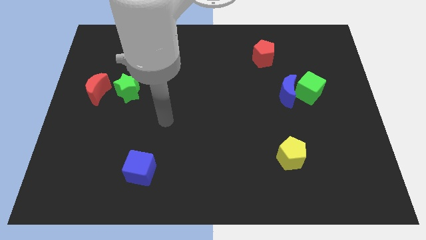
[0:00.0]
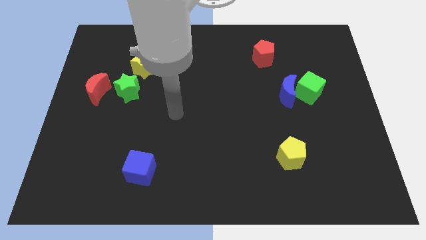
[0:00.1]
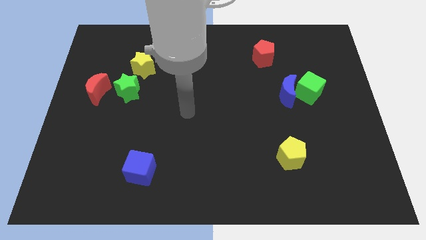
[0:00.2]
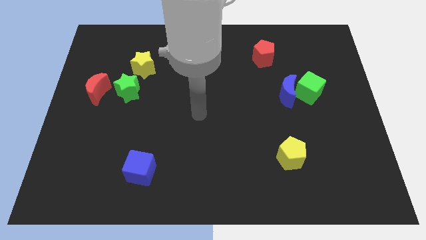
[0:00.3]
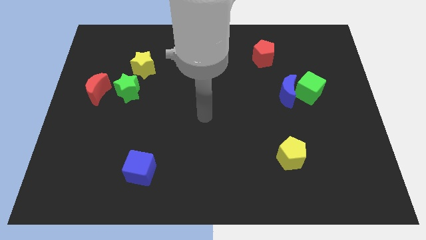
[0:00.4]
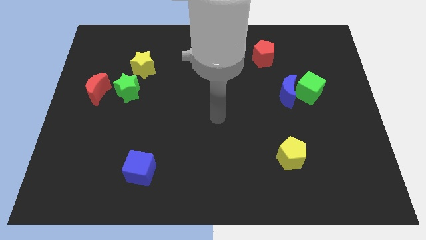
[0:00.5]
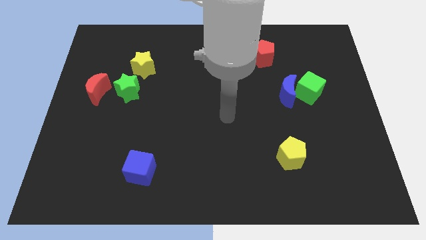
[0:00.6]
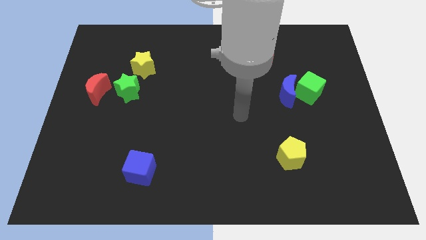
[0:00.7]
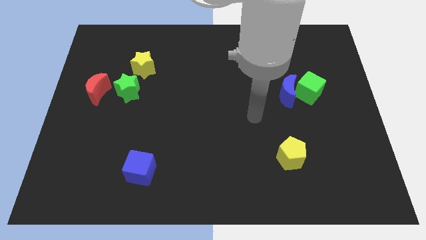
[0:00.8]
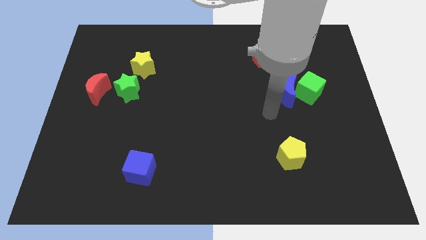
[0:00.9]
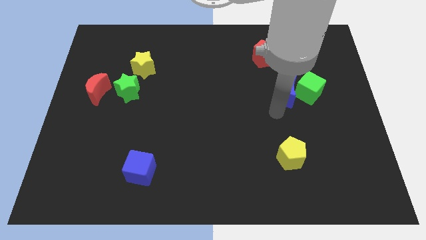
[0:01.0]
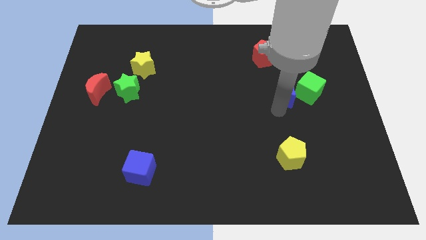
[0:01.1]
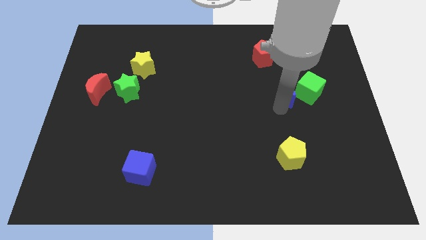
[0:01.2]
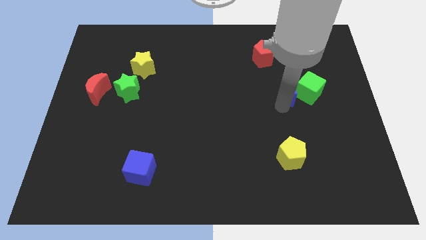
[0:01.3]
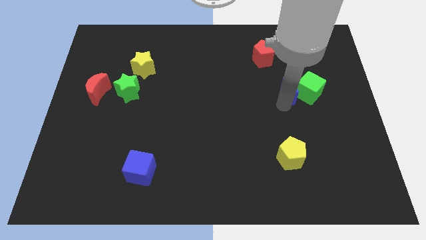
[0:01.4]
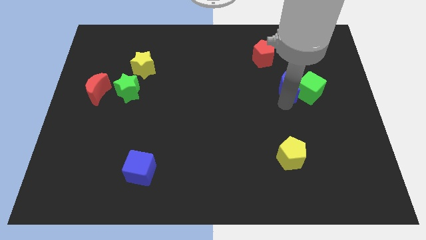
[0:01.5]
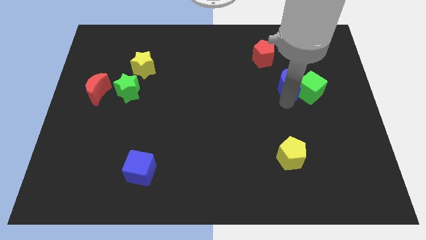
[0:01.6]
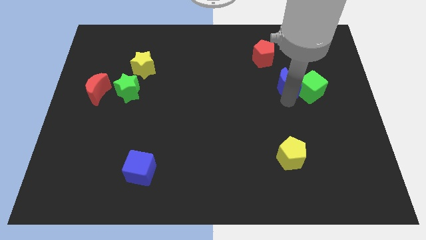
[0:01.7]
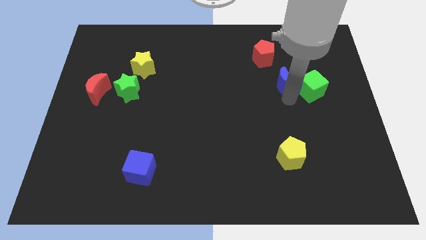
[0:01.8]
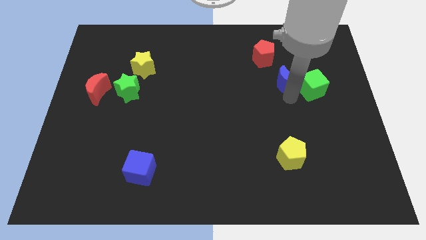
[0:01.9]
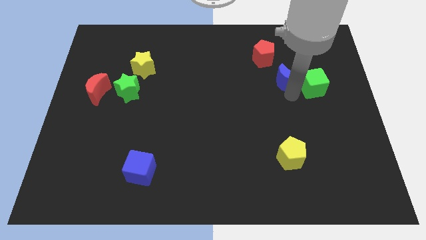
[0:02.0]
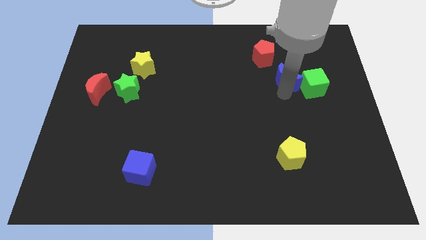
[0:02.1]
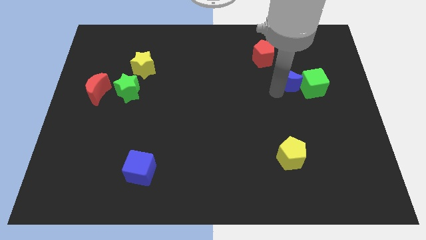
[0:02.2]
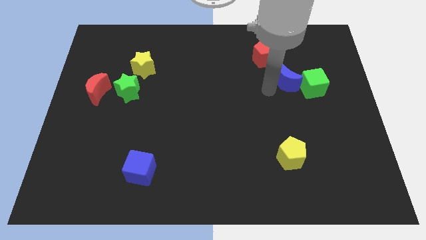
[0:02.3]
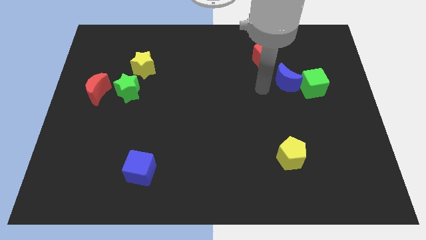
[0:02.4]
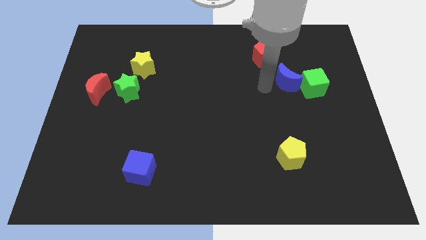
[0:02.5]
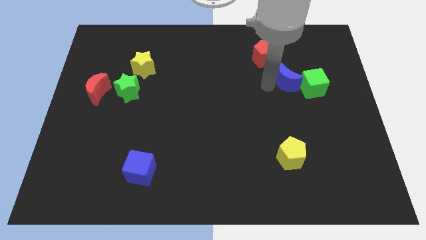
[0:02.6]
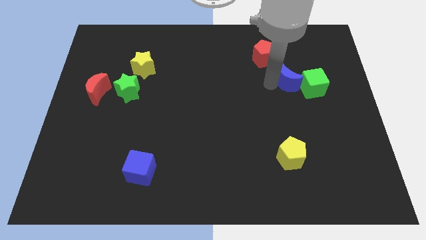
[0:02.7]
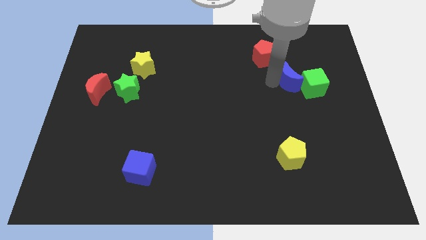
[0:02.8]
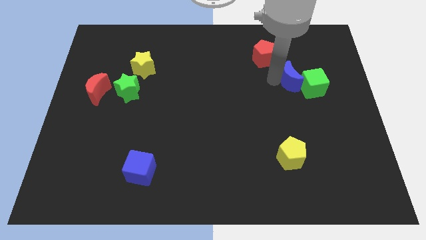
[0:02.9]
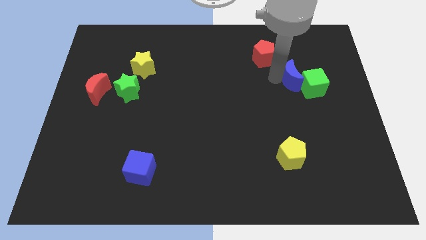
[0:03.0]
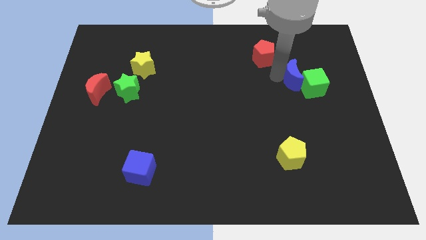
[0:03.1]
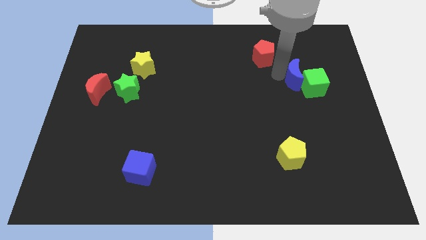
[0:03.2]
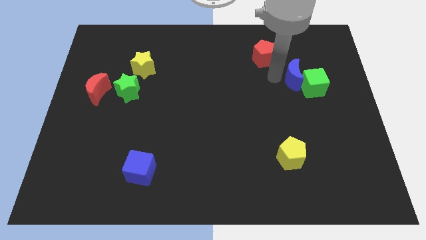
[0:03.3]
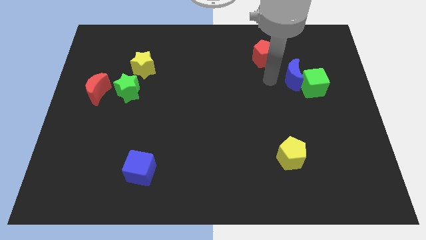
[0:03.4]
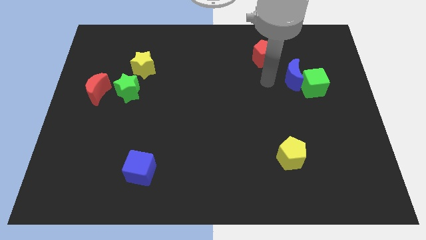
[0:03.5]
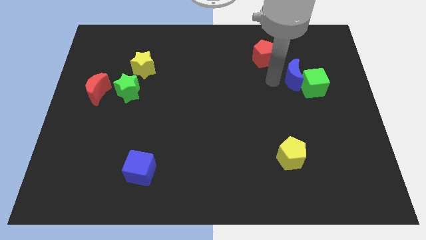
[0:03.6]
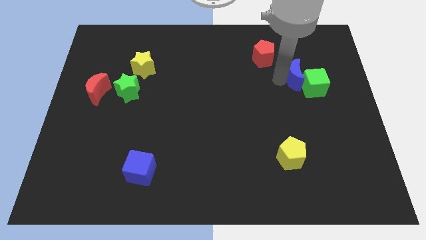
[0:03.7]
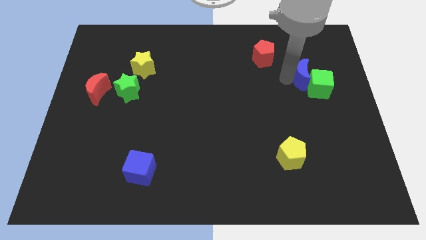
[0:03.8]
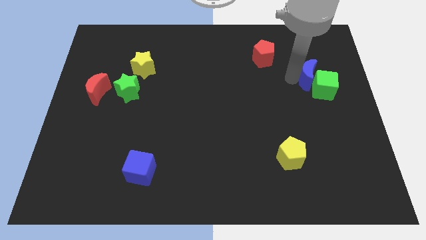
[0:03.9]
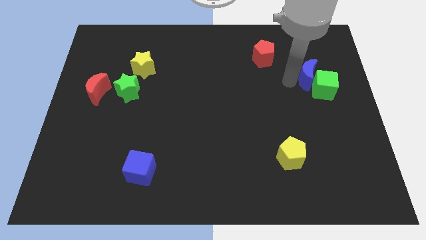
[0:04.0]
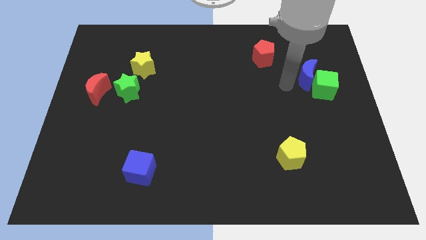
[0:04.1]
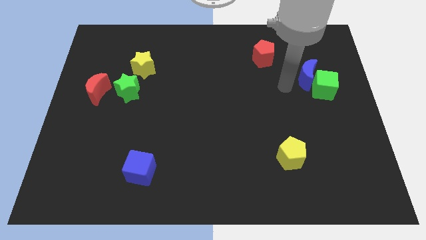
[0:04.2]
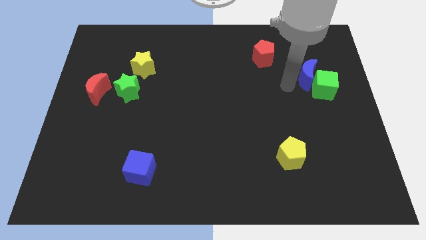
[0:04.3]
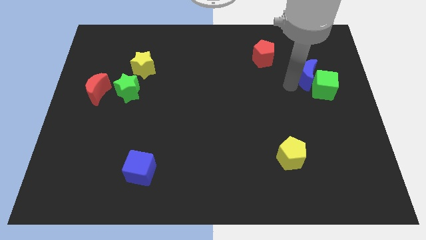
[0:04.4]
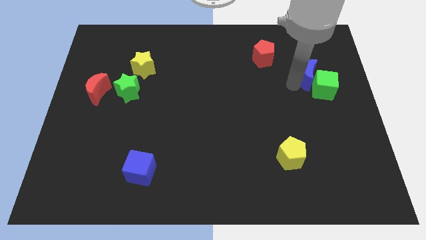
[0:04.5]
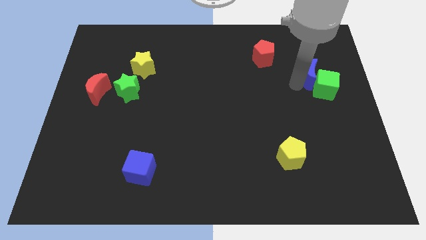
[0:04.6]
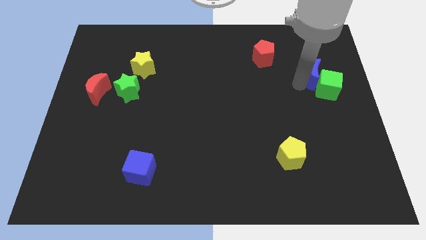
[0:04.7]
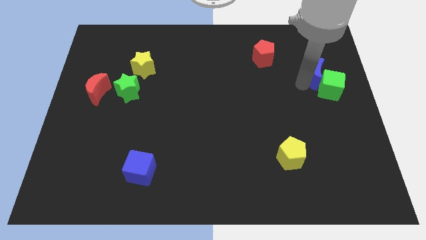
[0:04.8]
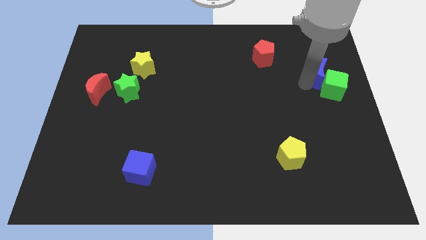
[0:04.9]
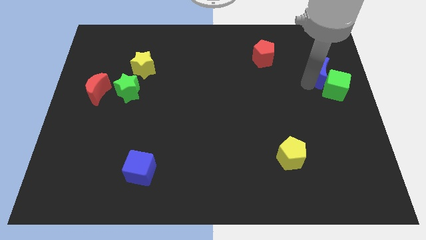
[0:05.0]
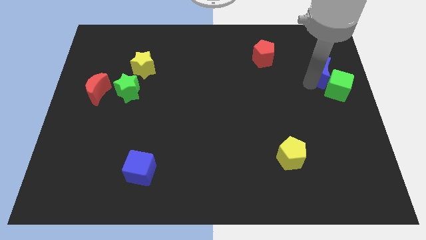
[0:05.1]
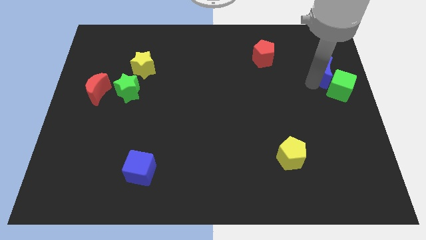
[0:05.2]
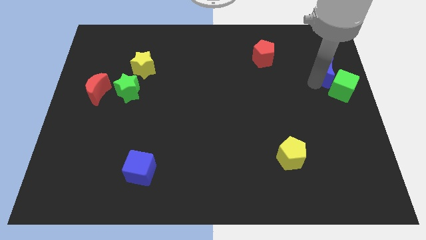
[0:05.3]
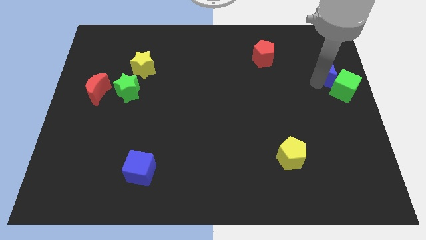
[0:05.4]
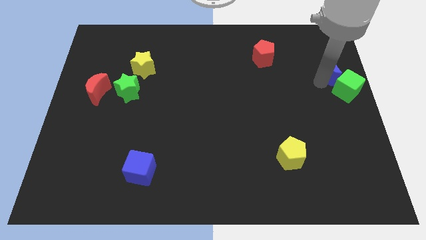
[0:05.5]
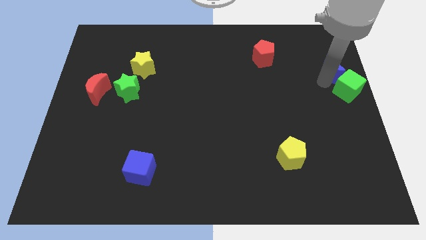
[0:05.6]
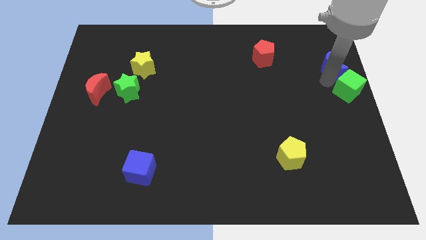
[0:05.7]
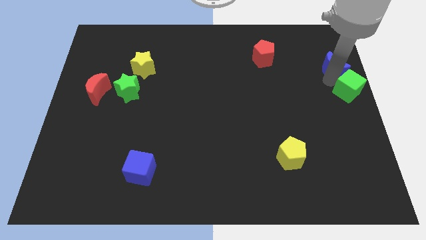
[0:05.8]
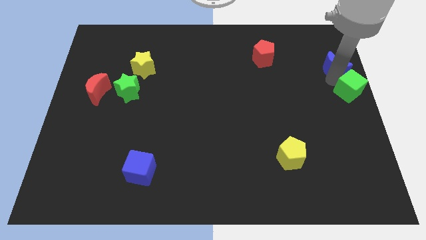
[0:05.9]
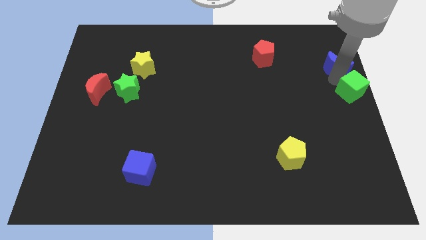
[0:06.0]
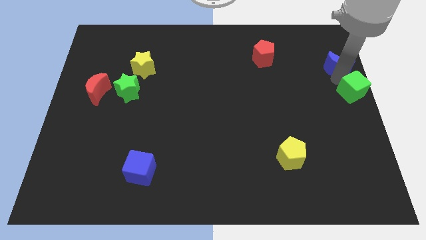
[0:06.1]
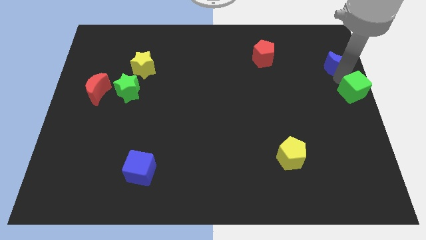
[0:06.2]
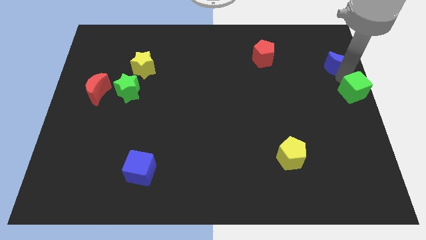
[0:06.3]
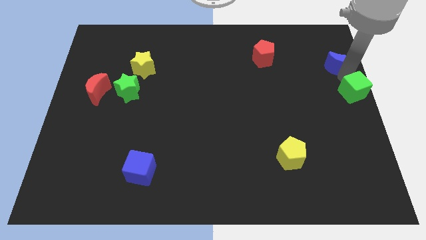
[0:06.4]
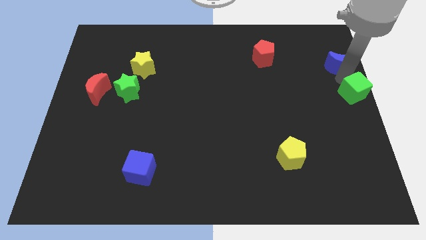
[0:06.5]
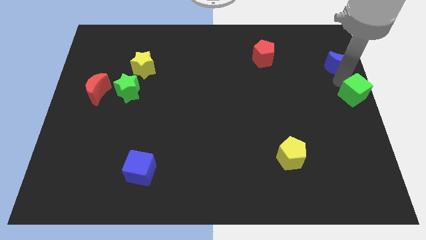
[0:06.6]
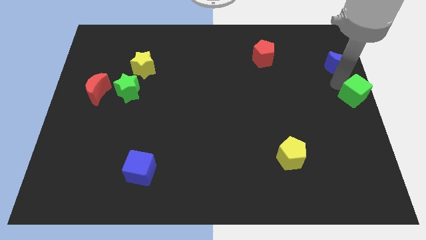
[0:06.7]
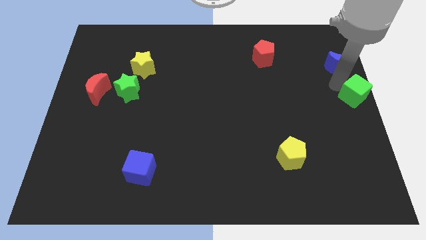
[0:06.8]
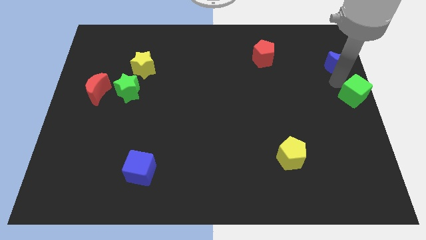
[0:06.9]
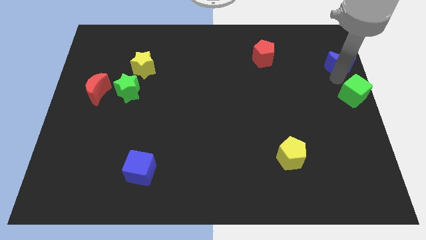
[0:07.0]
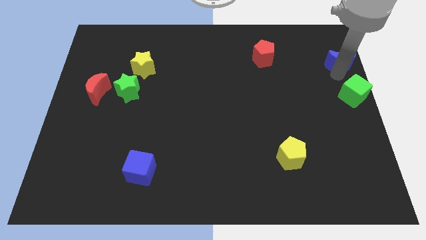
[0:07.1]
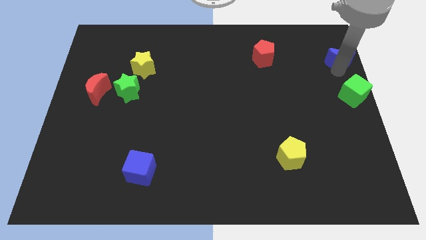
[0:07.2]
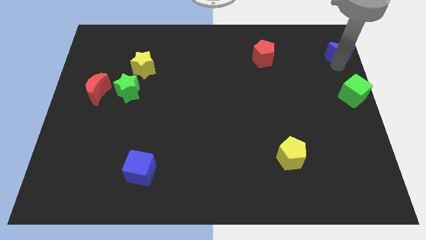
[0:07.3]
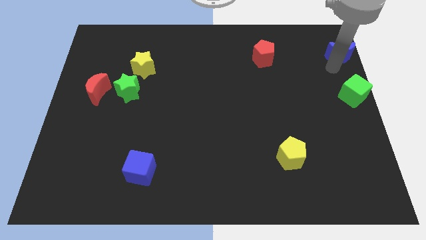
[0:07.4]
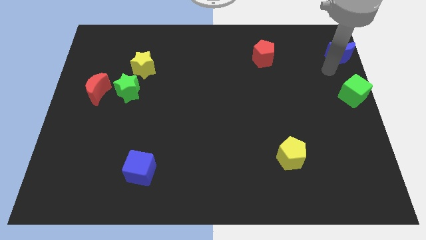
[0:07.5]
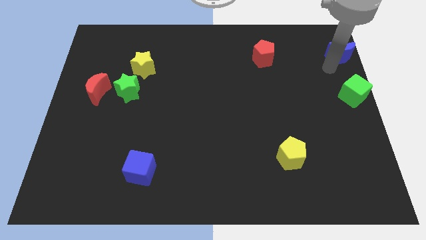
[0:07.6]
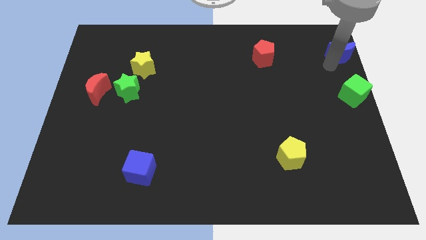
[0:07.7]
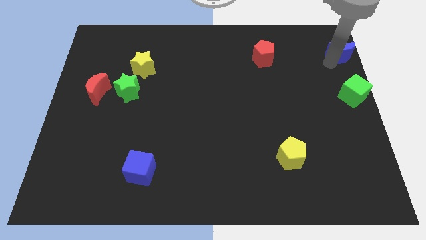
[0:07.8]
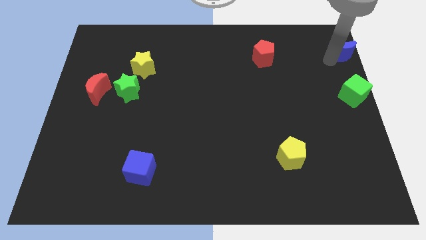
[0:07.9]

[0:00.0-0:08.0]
slide the blue moon to the upper right corner
